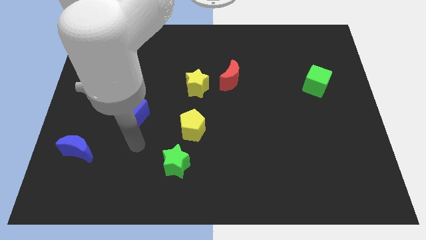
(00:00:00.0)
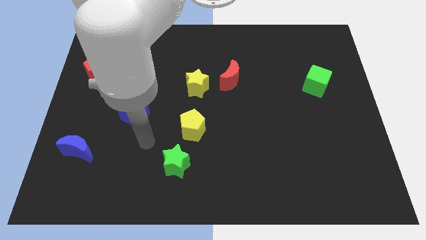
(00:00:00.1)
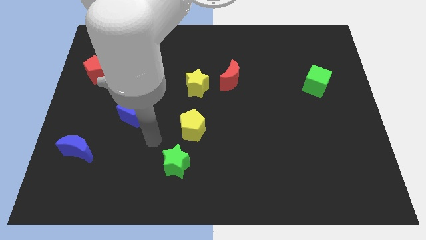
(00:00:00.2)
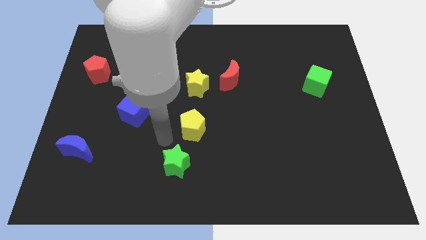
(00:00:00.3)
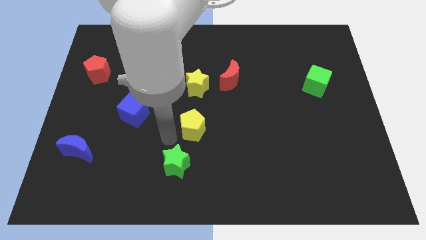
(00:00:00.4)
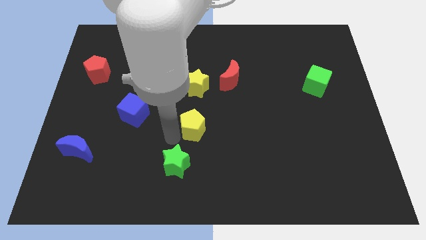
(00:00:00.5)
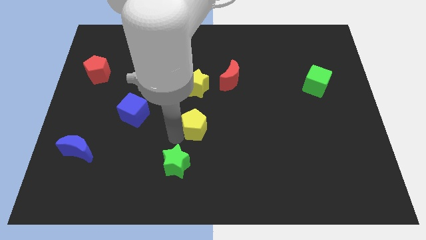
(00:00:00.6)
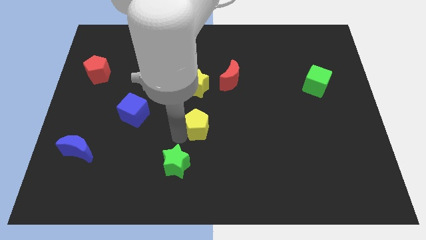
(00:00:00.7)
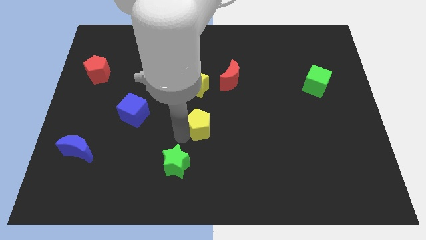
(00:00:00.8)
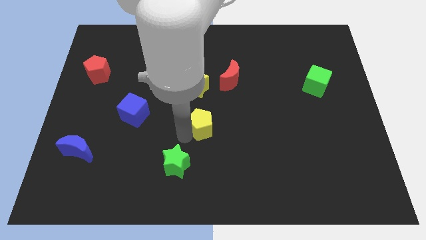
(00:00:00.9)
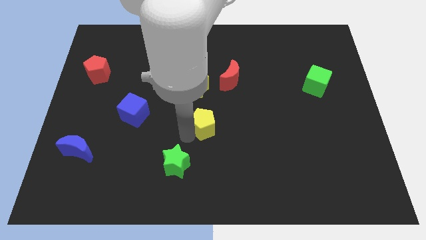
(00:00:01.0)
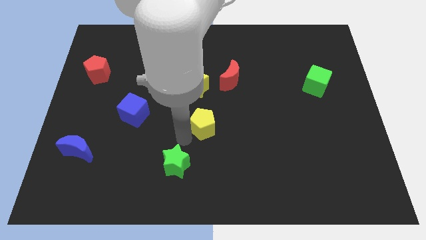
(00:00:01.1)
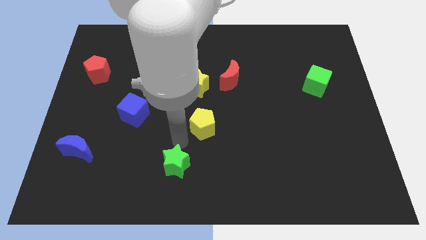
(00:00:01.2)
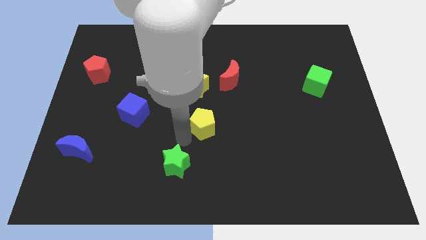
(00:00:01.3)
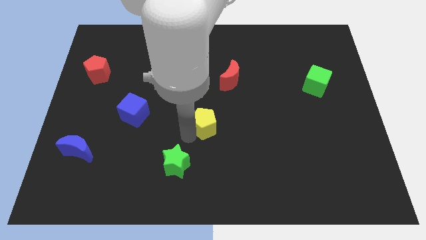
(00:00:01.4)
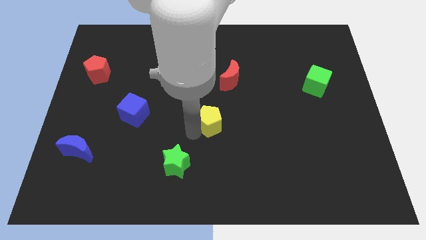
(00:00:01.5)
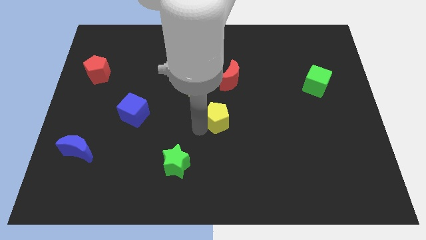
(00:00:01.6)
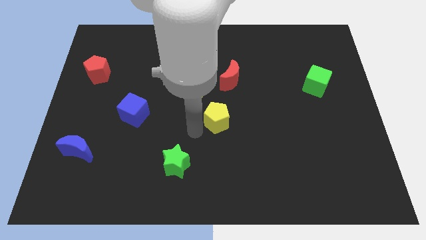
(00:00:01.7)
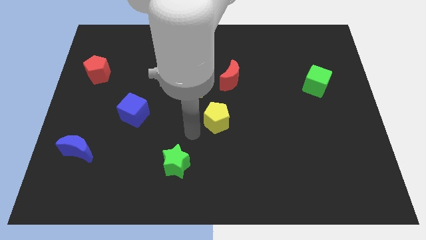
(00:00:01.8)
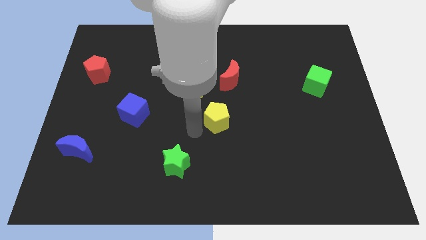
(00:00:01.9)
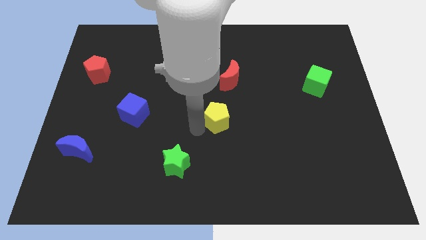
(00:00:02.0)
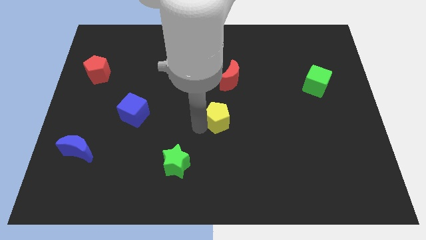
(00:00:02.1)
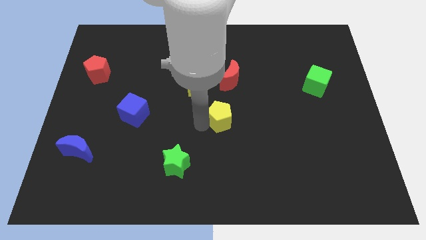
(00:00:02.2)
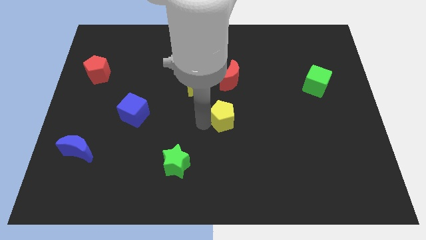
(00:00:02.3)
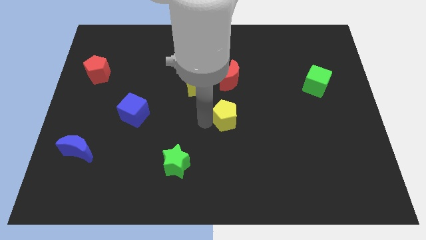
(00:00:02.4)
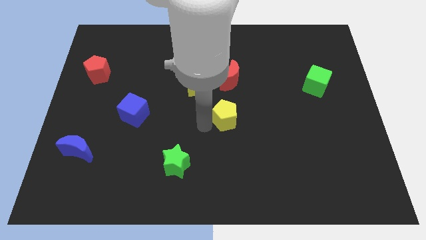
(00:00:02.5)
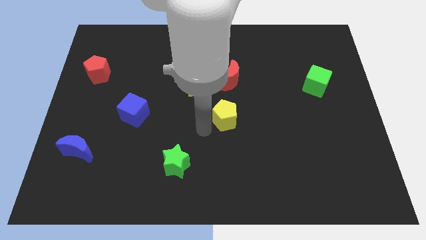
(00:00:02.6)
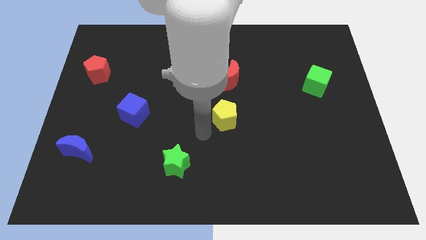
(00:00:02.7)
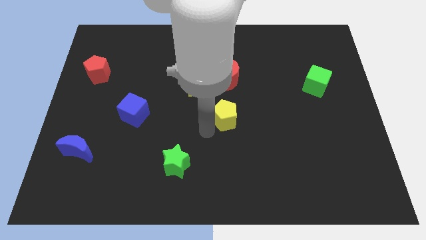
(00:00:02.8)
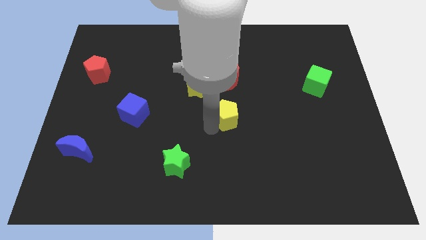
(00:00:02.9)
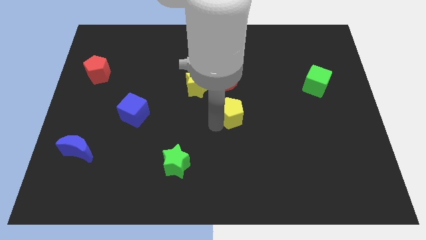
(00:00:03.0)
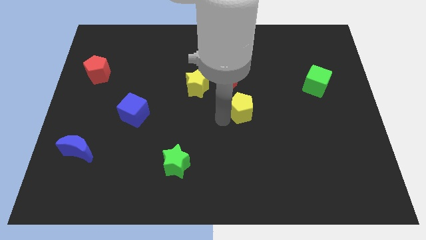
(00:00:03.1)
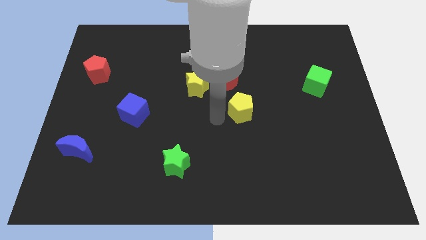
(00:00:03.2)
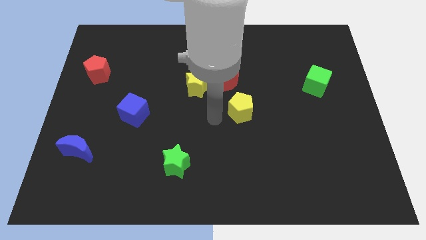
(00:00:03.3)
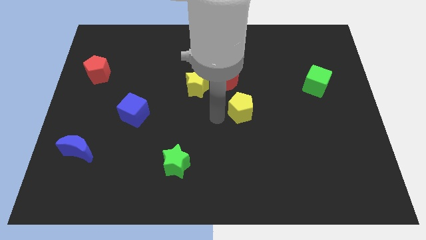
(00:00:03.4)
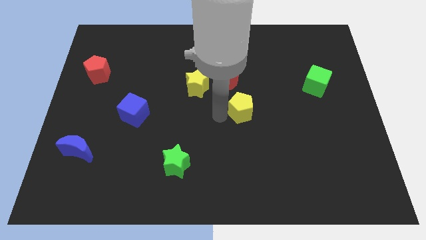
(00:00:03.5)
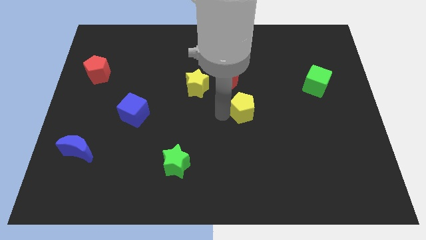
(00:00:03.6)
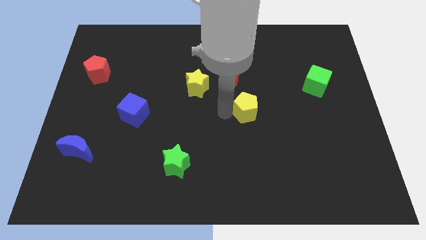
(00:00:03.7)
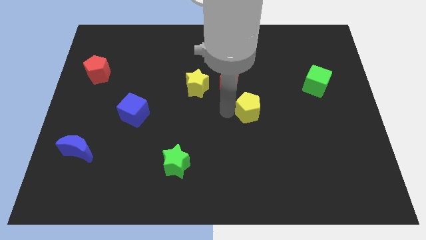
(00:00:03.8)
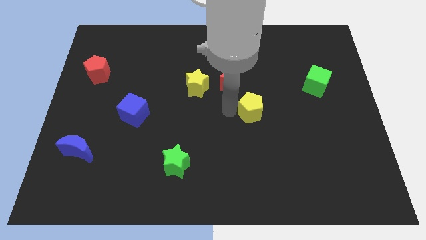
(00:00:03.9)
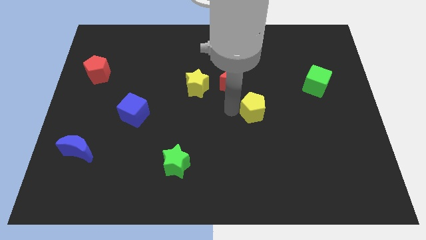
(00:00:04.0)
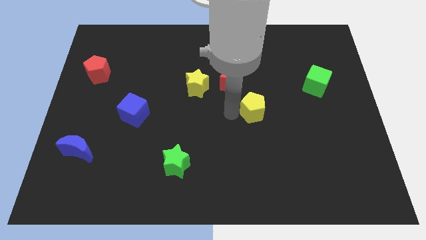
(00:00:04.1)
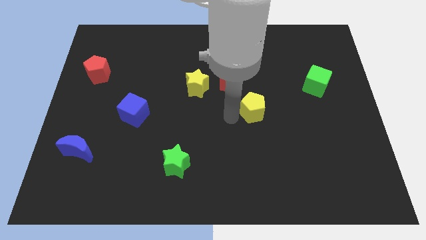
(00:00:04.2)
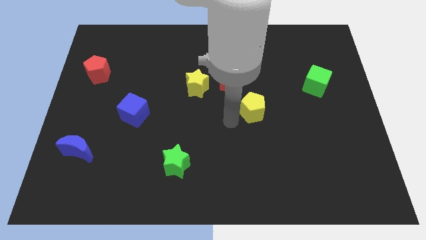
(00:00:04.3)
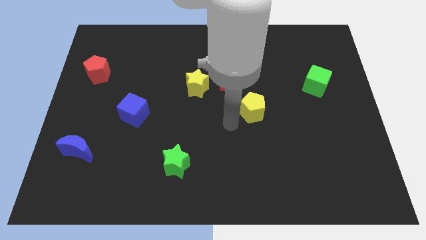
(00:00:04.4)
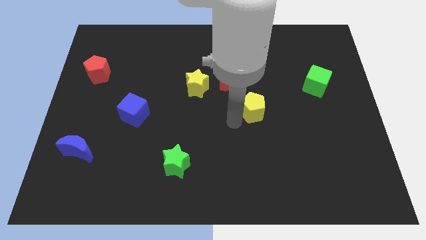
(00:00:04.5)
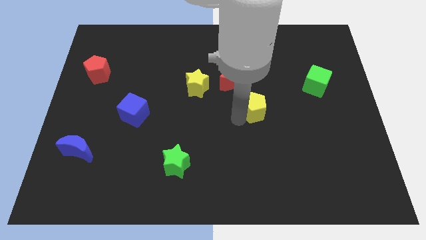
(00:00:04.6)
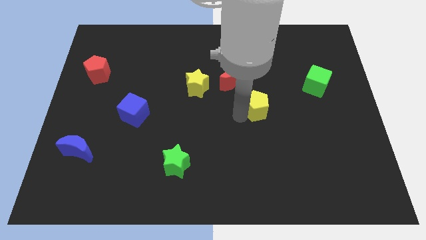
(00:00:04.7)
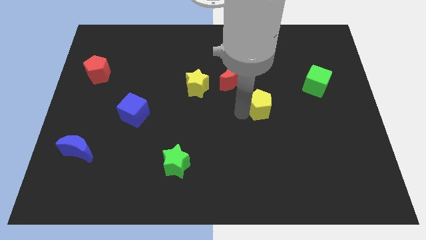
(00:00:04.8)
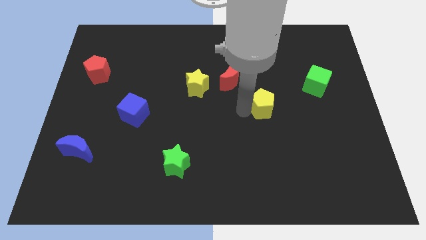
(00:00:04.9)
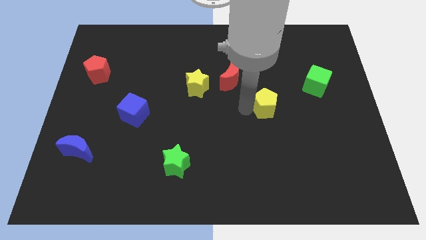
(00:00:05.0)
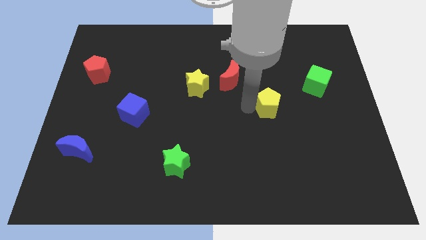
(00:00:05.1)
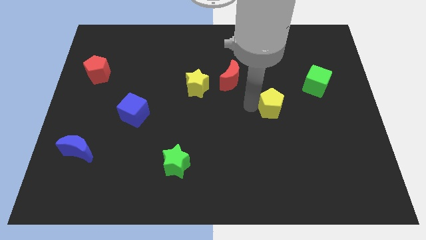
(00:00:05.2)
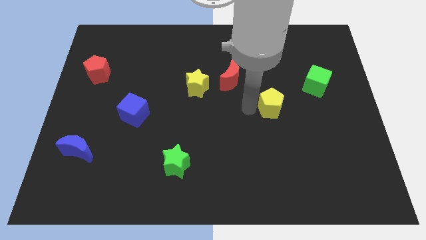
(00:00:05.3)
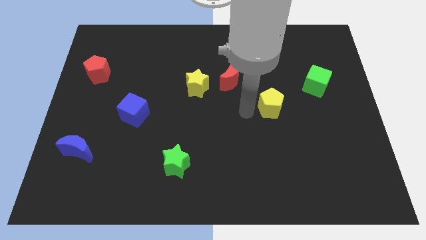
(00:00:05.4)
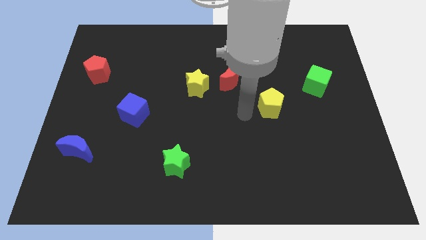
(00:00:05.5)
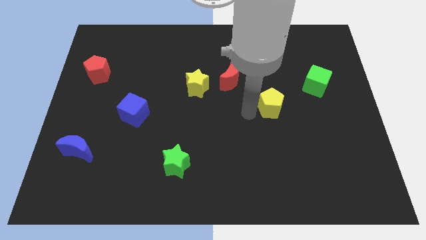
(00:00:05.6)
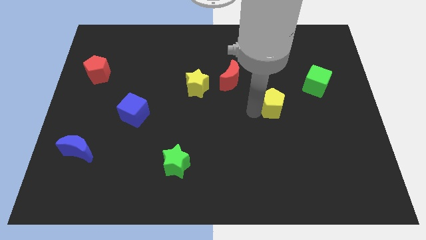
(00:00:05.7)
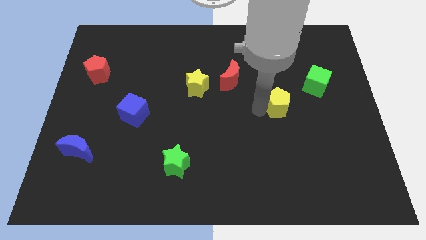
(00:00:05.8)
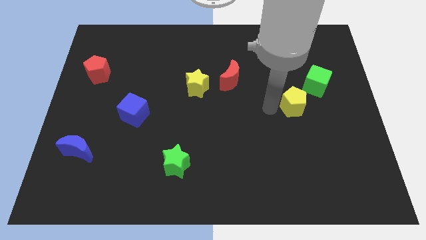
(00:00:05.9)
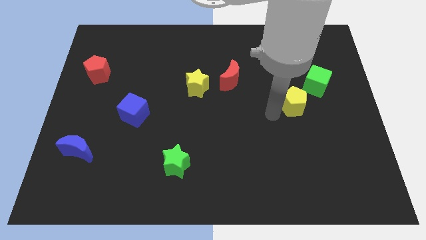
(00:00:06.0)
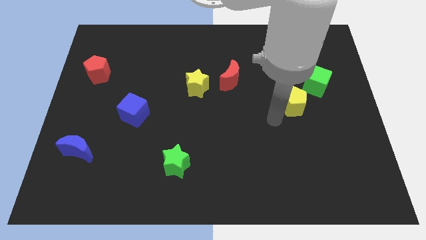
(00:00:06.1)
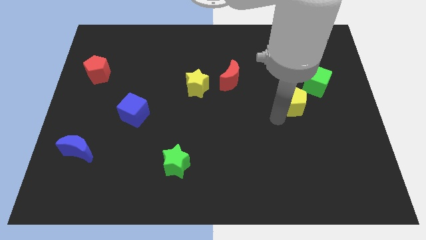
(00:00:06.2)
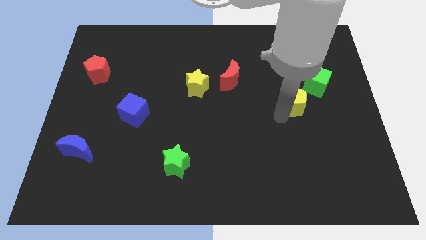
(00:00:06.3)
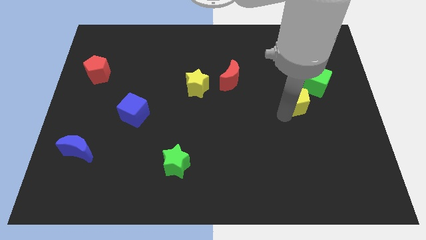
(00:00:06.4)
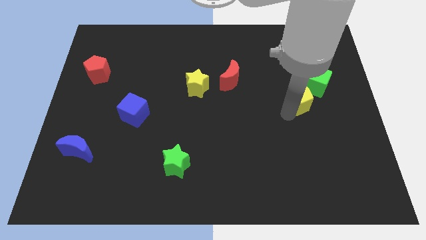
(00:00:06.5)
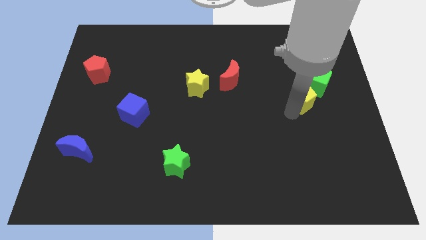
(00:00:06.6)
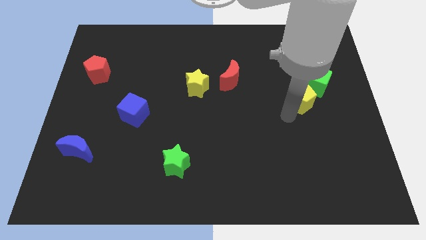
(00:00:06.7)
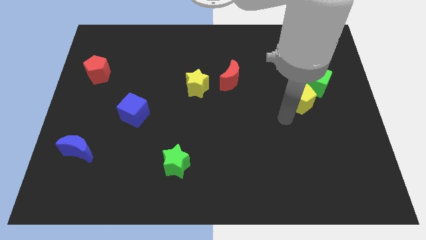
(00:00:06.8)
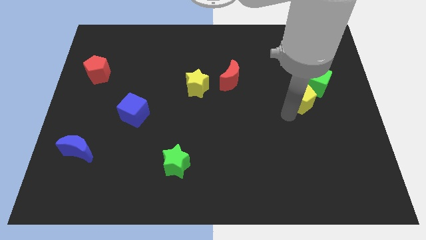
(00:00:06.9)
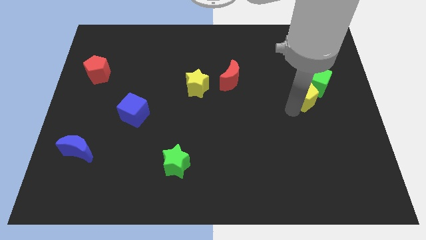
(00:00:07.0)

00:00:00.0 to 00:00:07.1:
slide the yellow pentagon towards the green cube

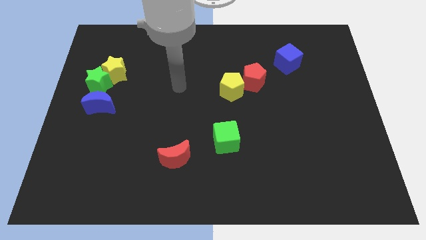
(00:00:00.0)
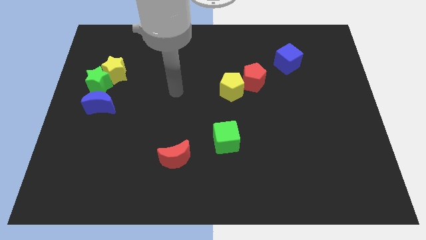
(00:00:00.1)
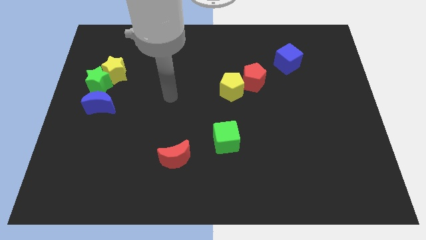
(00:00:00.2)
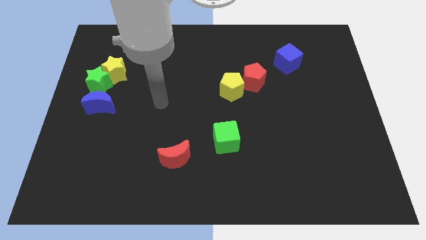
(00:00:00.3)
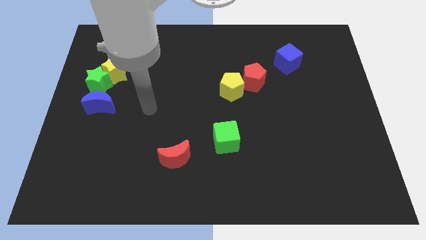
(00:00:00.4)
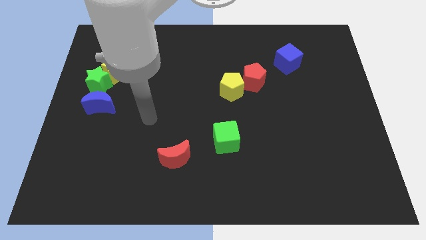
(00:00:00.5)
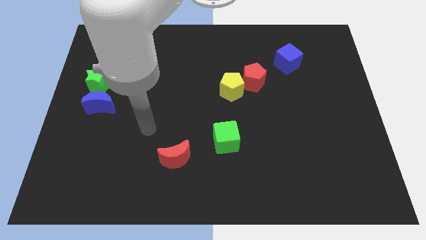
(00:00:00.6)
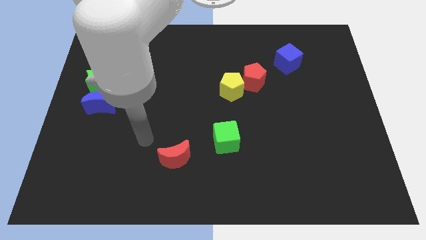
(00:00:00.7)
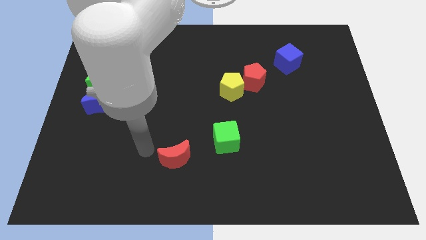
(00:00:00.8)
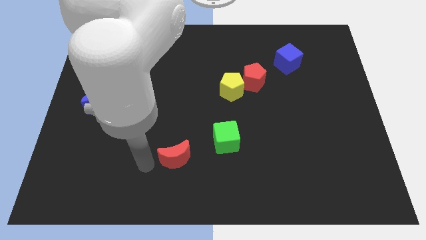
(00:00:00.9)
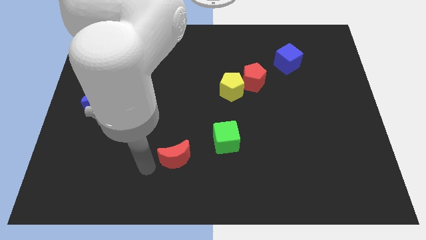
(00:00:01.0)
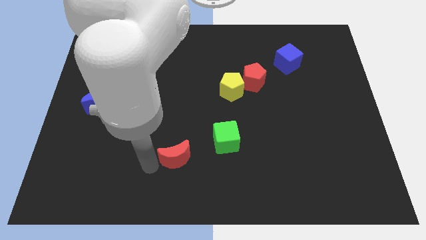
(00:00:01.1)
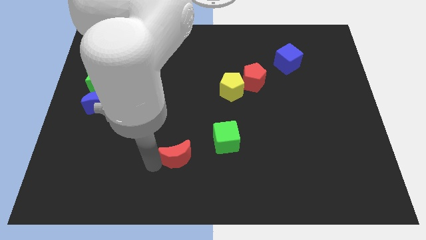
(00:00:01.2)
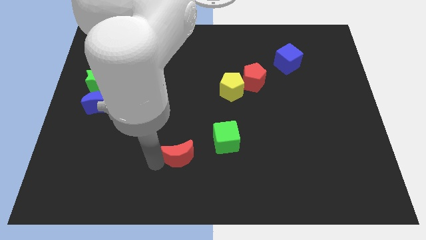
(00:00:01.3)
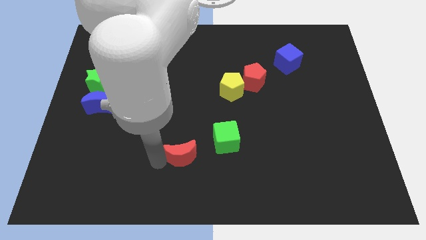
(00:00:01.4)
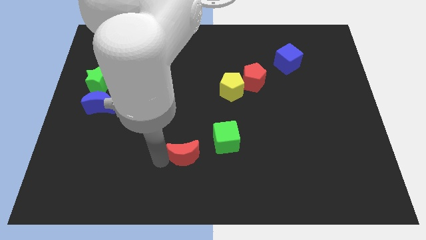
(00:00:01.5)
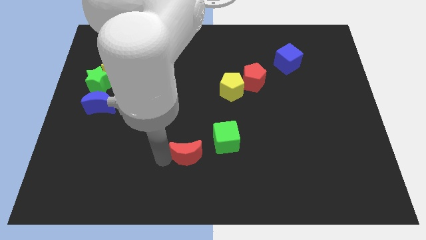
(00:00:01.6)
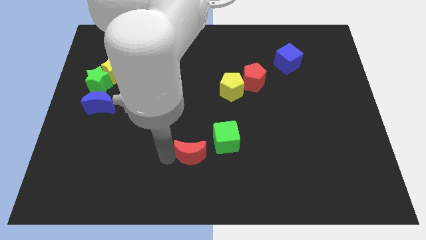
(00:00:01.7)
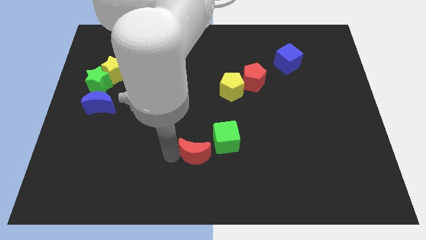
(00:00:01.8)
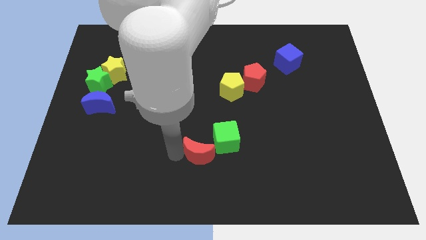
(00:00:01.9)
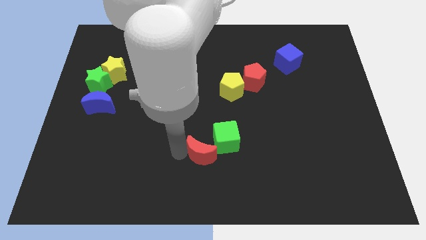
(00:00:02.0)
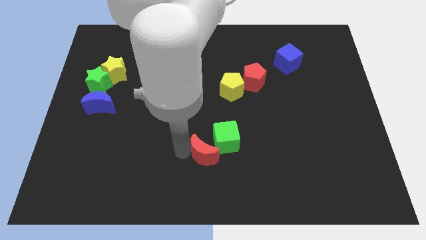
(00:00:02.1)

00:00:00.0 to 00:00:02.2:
slide the red moon close to the green cube
